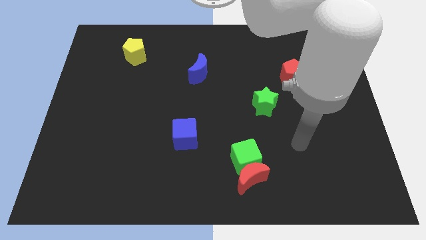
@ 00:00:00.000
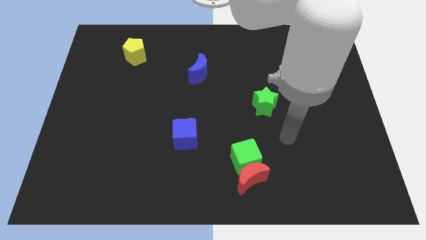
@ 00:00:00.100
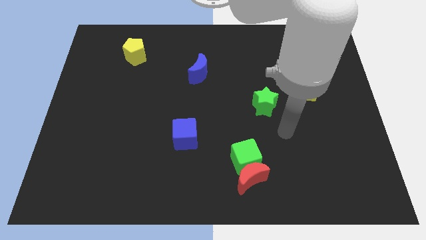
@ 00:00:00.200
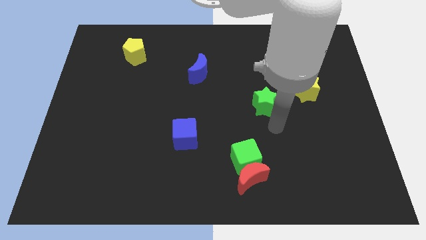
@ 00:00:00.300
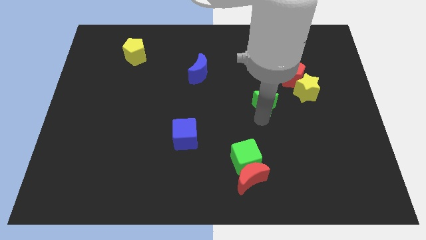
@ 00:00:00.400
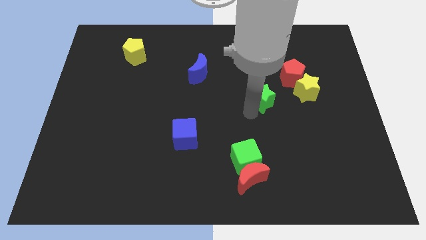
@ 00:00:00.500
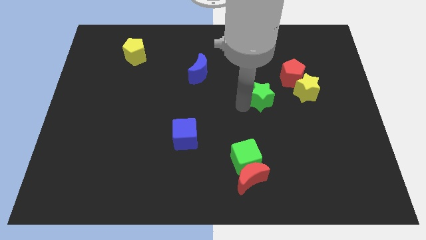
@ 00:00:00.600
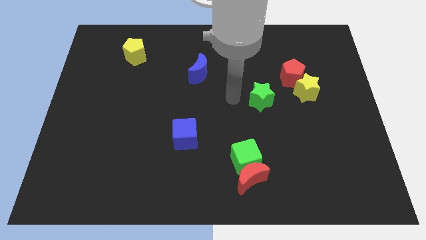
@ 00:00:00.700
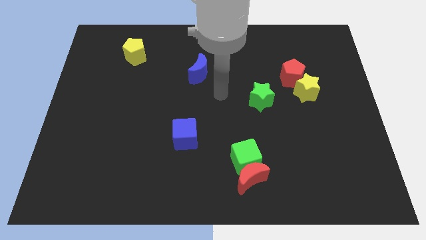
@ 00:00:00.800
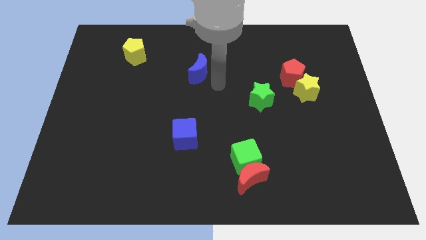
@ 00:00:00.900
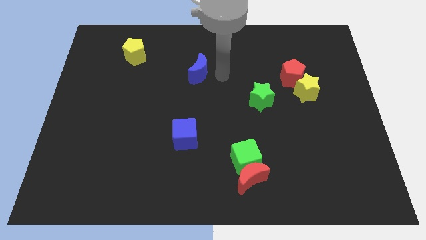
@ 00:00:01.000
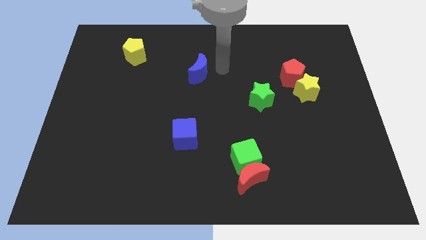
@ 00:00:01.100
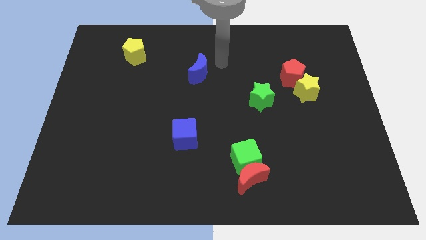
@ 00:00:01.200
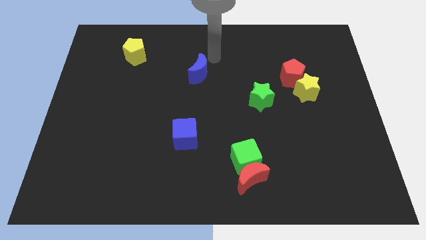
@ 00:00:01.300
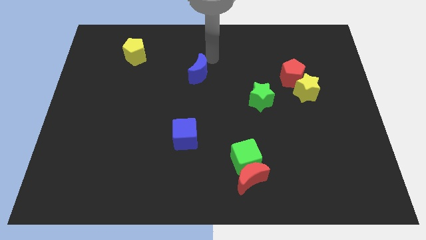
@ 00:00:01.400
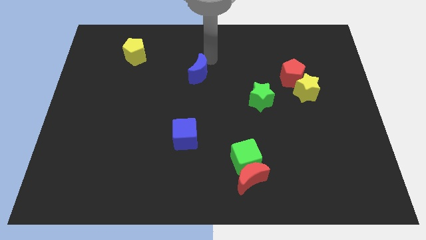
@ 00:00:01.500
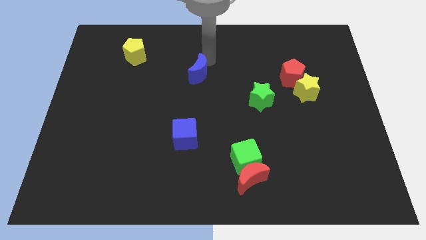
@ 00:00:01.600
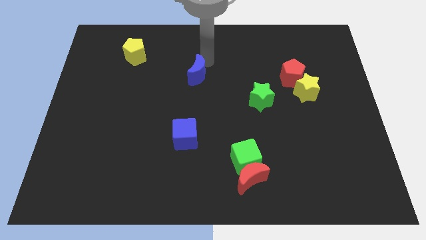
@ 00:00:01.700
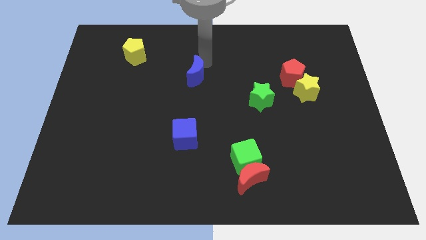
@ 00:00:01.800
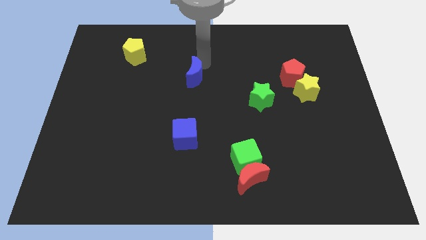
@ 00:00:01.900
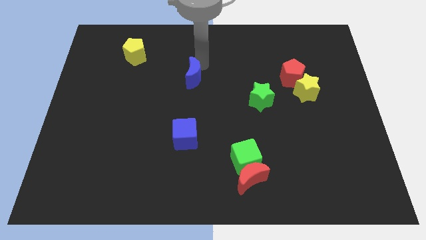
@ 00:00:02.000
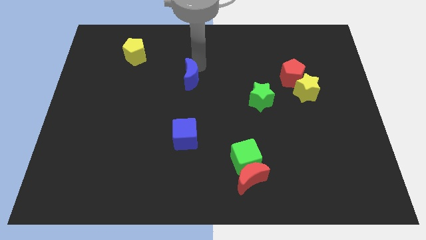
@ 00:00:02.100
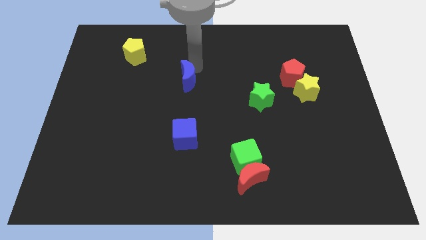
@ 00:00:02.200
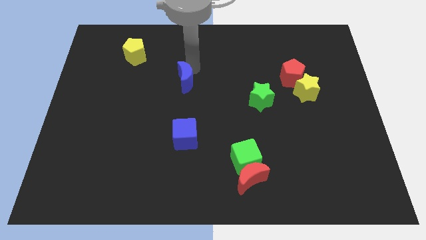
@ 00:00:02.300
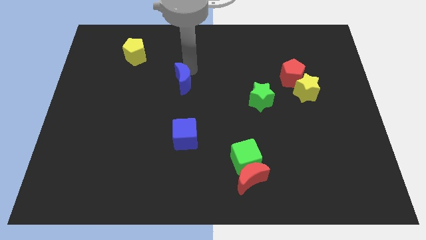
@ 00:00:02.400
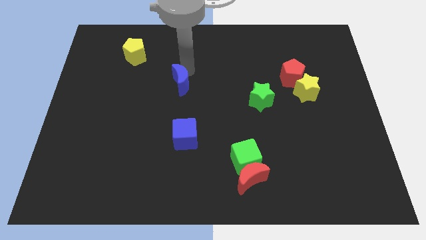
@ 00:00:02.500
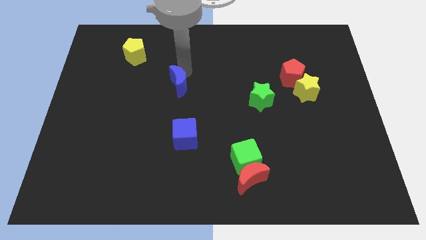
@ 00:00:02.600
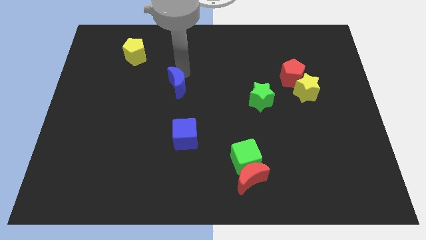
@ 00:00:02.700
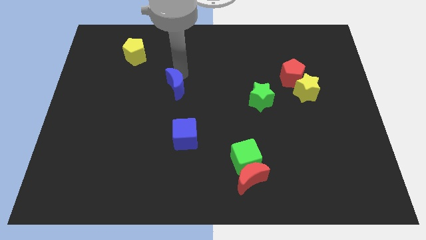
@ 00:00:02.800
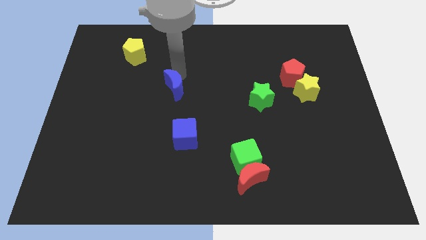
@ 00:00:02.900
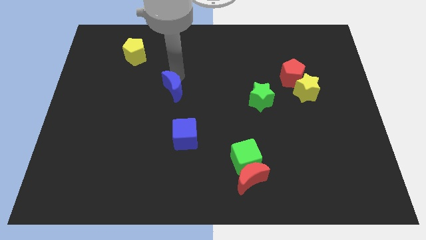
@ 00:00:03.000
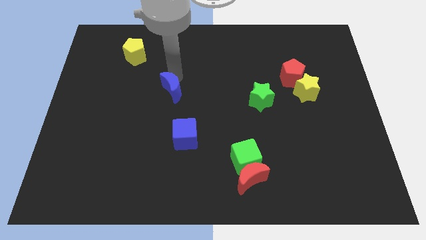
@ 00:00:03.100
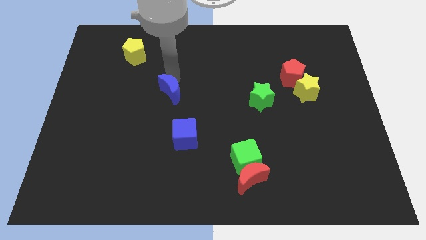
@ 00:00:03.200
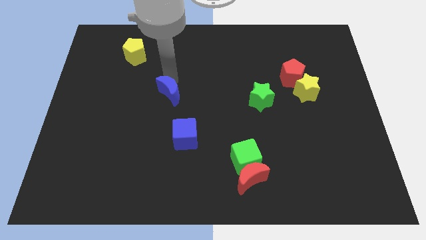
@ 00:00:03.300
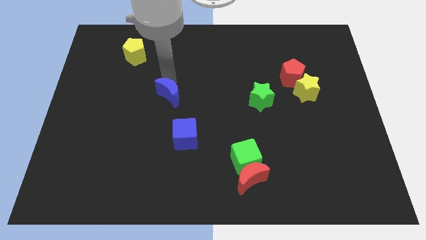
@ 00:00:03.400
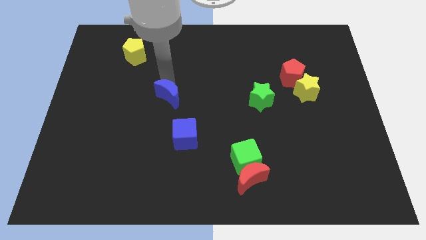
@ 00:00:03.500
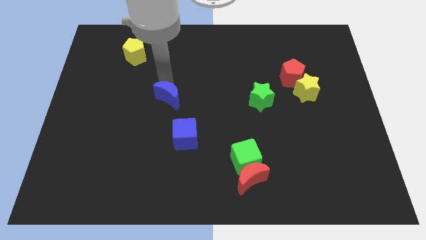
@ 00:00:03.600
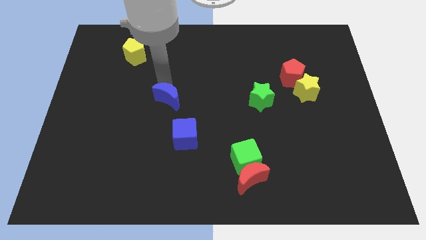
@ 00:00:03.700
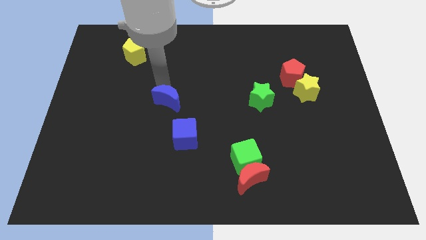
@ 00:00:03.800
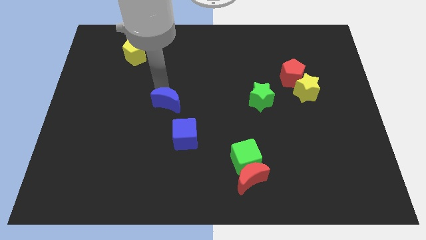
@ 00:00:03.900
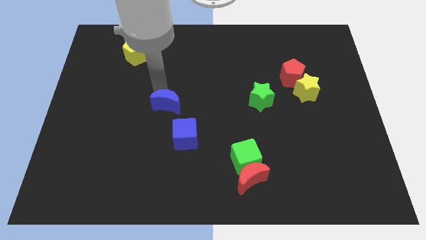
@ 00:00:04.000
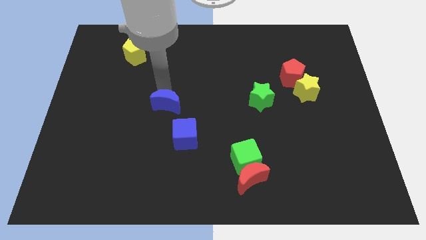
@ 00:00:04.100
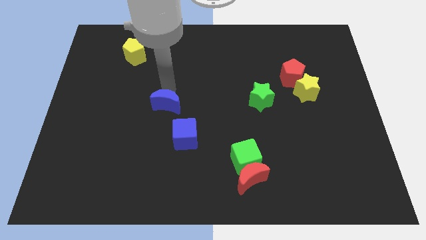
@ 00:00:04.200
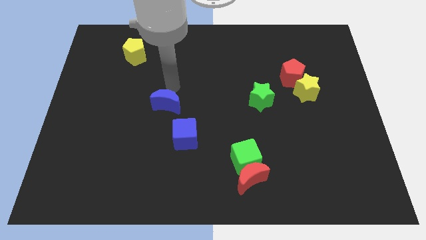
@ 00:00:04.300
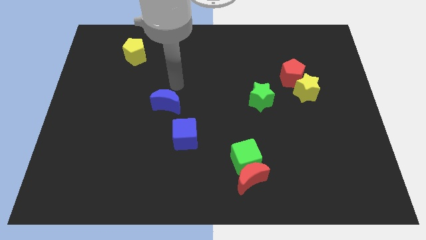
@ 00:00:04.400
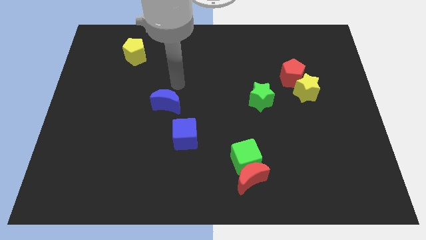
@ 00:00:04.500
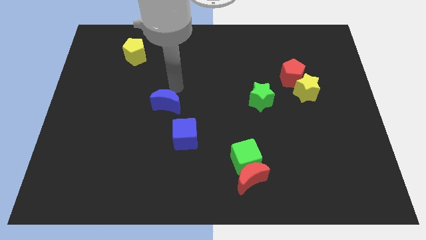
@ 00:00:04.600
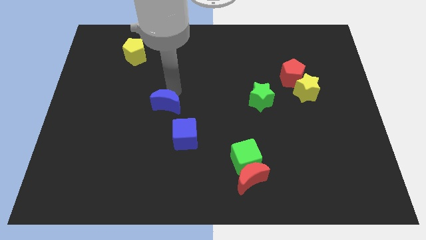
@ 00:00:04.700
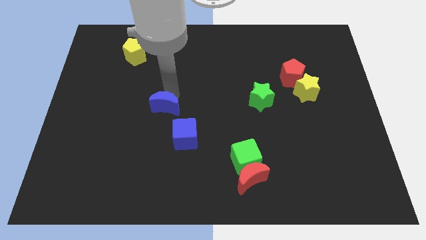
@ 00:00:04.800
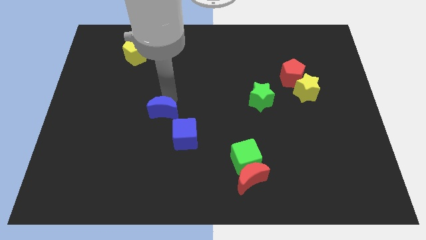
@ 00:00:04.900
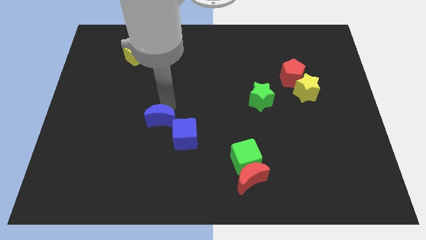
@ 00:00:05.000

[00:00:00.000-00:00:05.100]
slide the blue moon just left of the blue cube

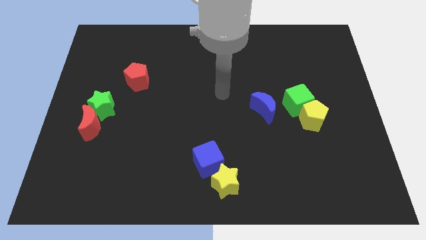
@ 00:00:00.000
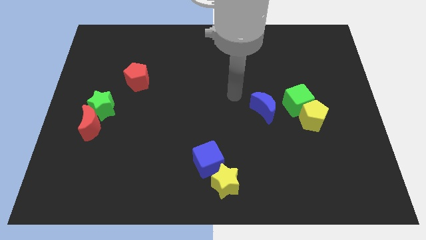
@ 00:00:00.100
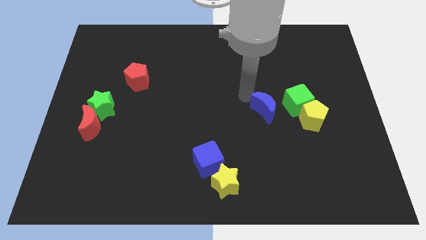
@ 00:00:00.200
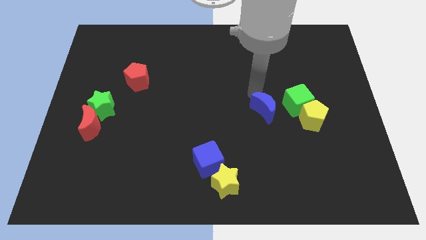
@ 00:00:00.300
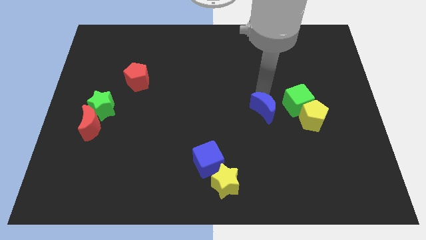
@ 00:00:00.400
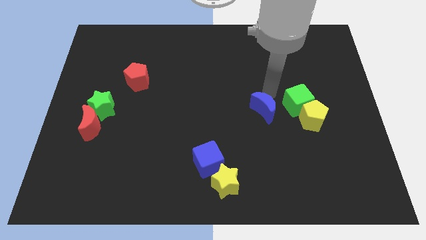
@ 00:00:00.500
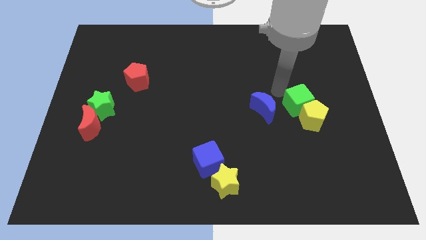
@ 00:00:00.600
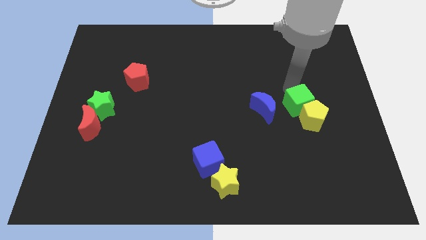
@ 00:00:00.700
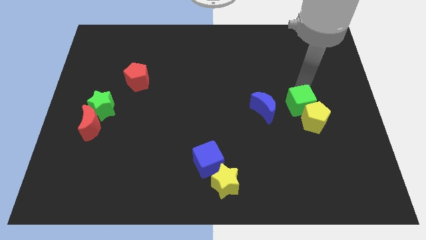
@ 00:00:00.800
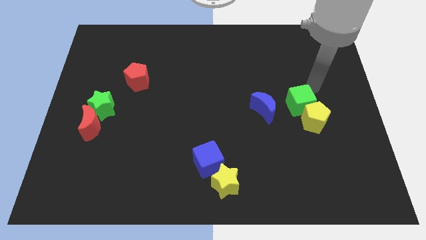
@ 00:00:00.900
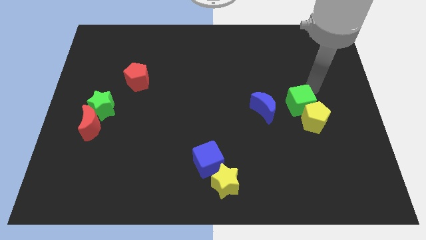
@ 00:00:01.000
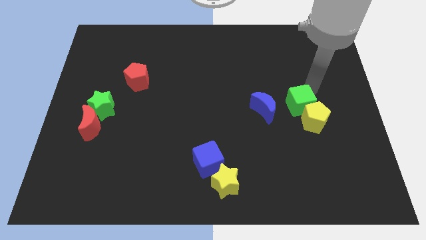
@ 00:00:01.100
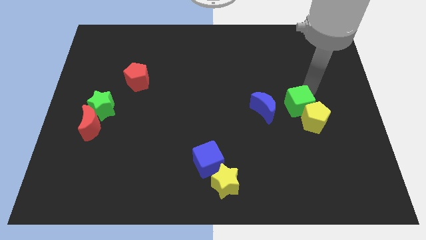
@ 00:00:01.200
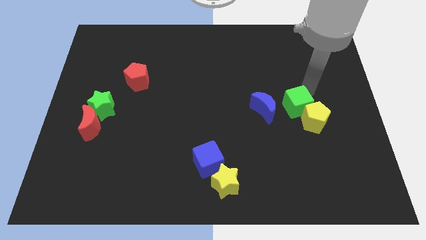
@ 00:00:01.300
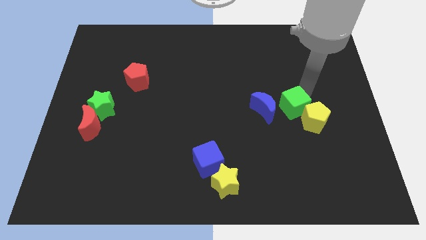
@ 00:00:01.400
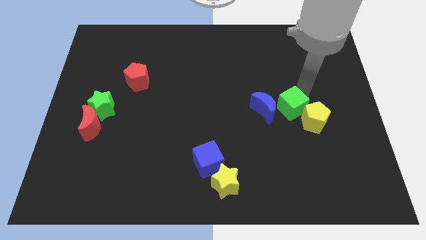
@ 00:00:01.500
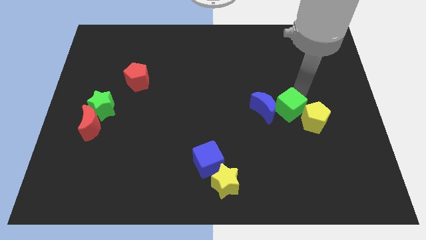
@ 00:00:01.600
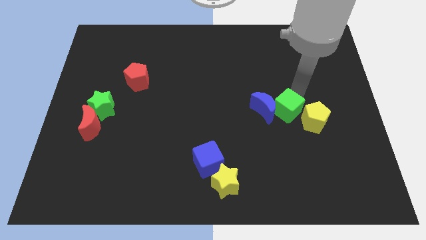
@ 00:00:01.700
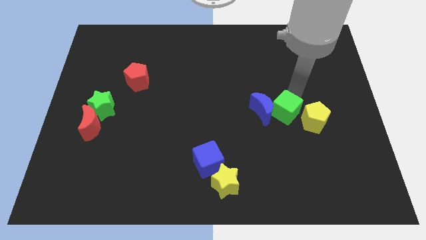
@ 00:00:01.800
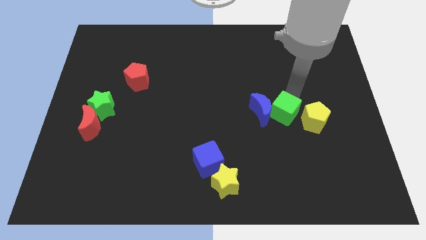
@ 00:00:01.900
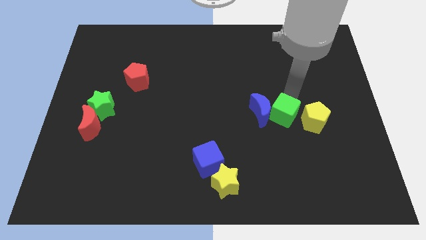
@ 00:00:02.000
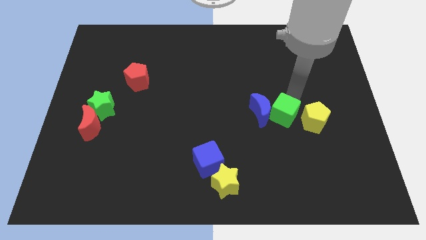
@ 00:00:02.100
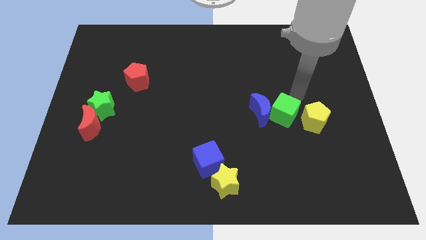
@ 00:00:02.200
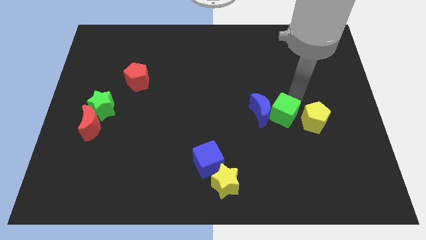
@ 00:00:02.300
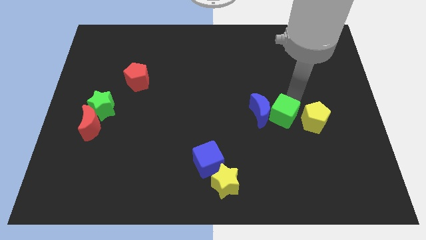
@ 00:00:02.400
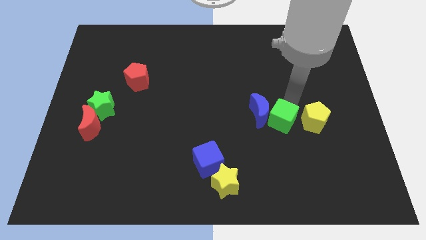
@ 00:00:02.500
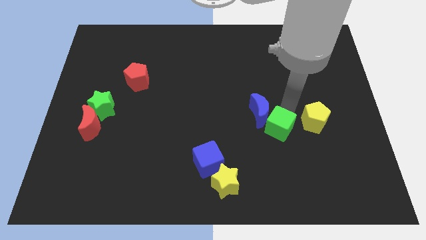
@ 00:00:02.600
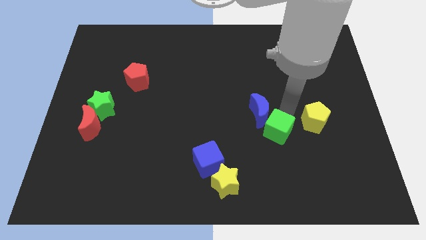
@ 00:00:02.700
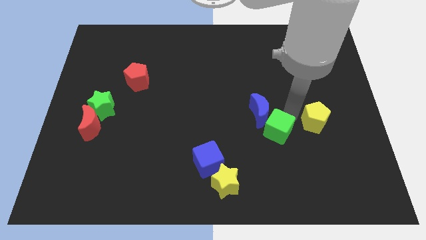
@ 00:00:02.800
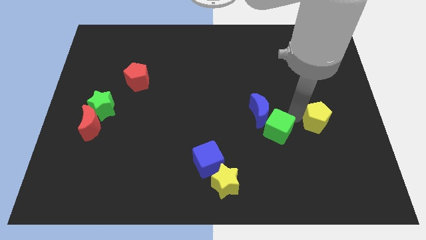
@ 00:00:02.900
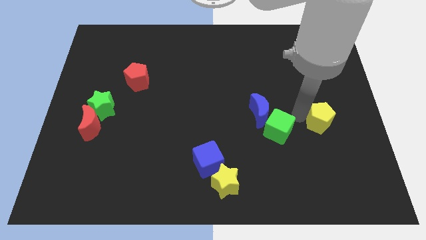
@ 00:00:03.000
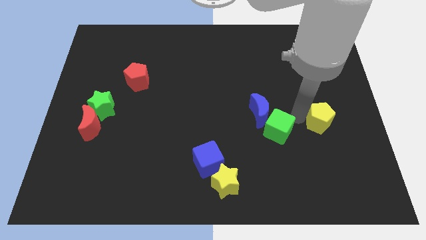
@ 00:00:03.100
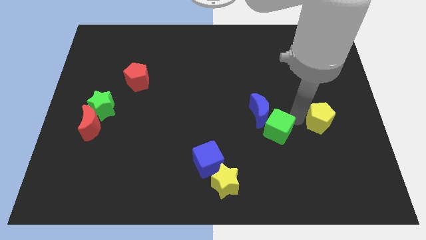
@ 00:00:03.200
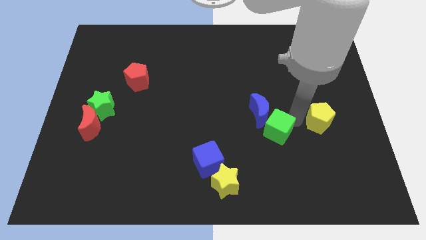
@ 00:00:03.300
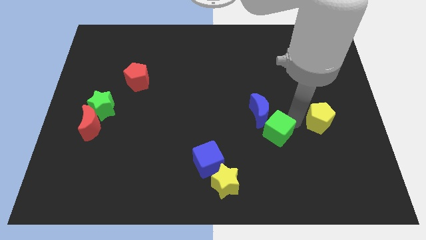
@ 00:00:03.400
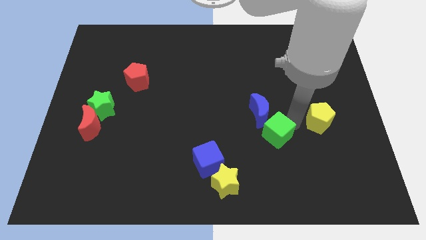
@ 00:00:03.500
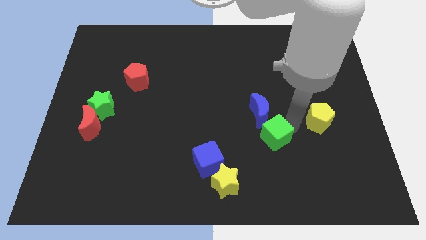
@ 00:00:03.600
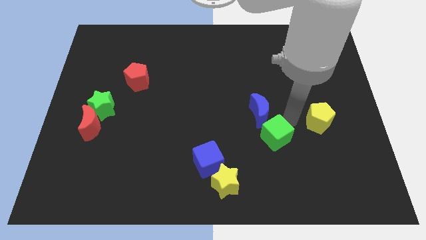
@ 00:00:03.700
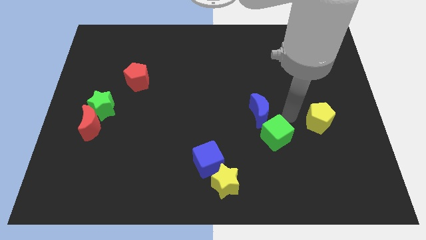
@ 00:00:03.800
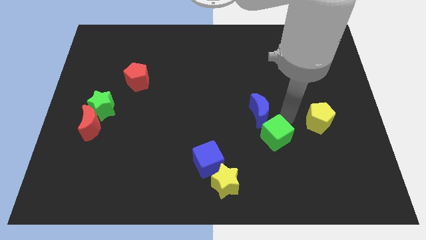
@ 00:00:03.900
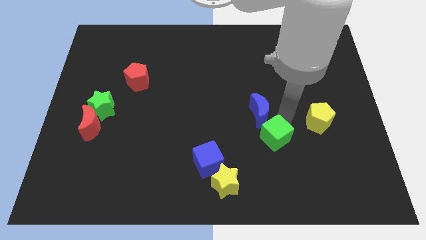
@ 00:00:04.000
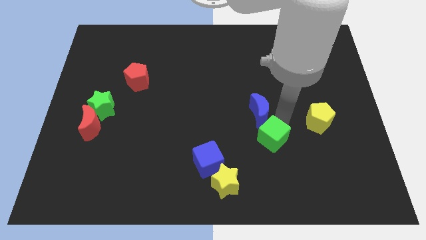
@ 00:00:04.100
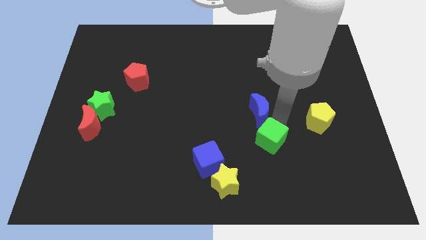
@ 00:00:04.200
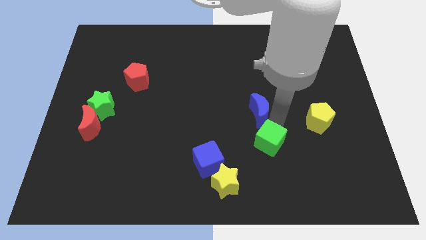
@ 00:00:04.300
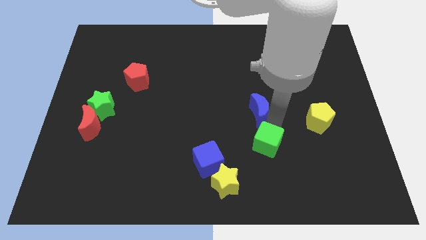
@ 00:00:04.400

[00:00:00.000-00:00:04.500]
move the green cube just right of the blue cube
